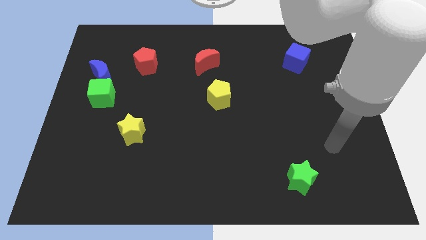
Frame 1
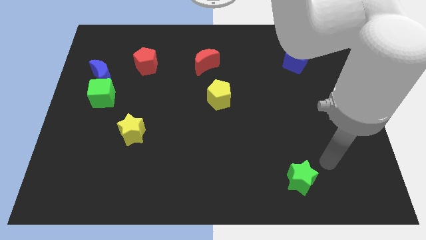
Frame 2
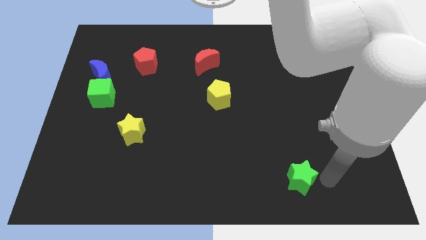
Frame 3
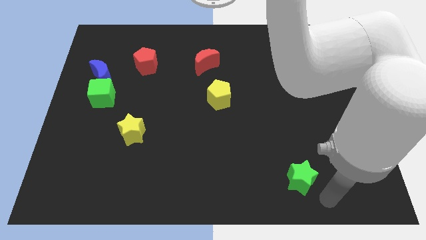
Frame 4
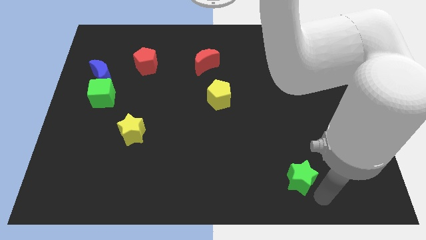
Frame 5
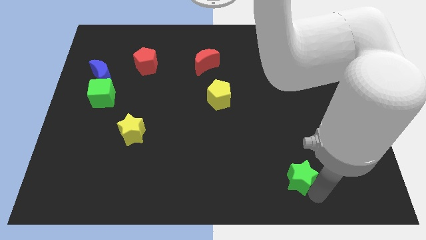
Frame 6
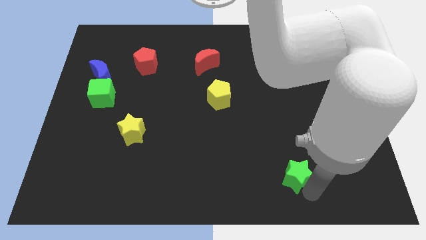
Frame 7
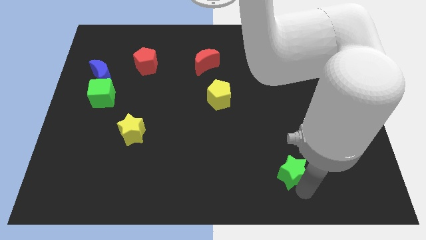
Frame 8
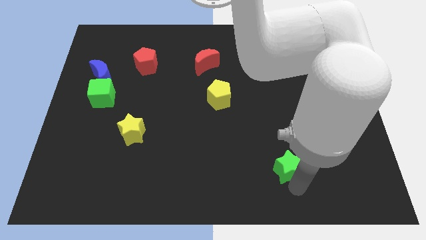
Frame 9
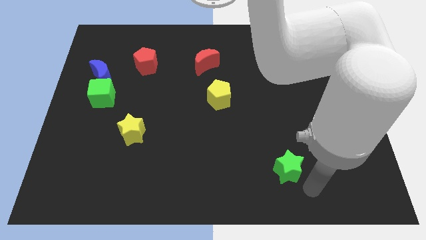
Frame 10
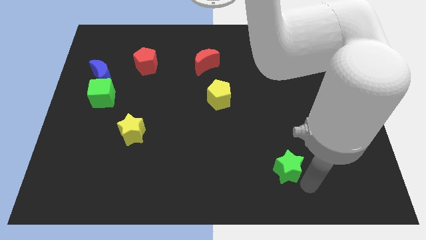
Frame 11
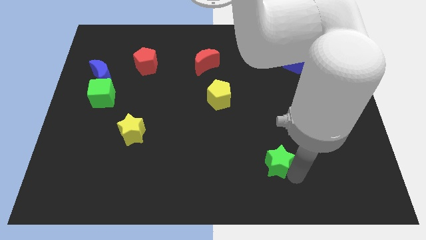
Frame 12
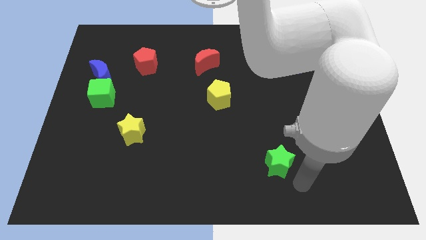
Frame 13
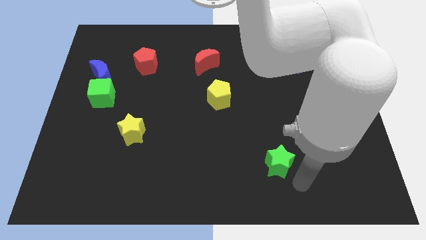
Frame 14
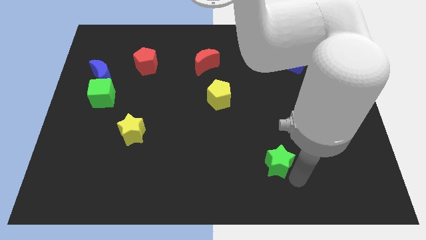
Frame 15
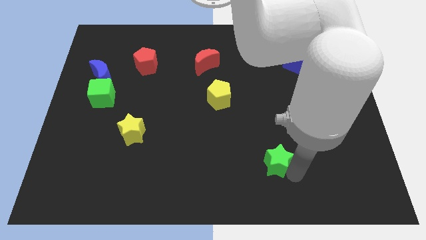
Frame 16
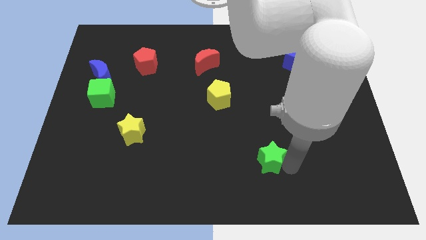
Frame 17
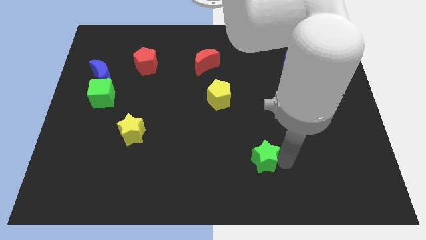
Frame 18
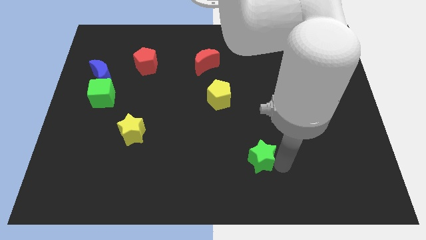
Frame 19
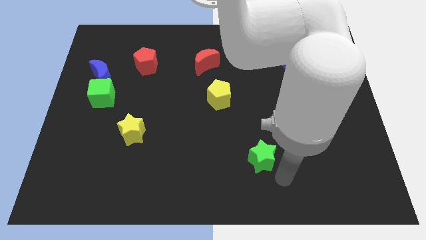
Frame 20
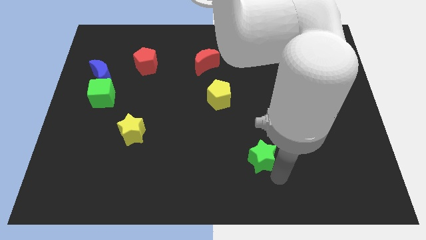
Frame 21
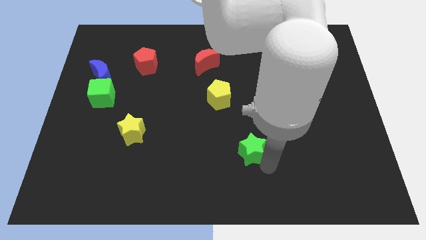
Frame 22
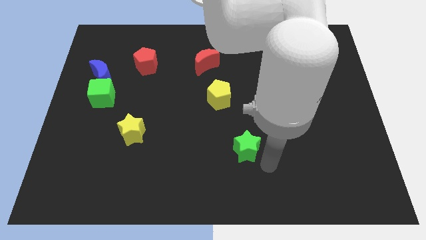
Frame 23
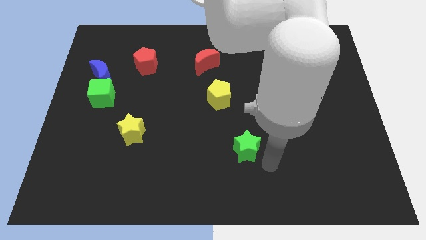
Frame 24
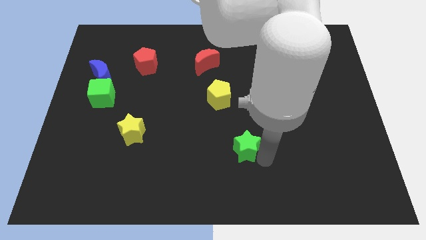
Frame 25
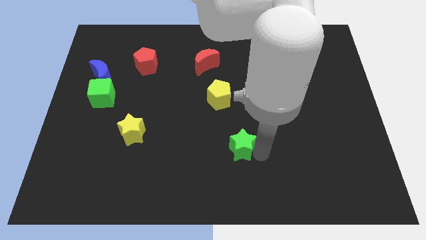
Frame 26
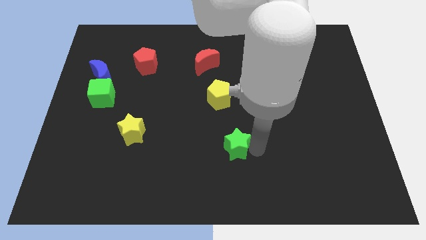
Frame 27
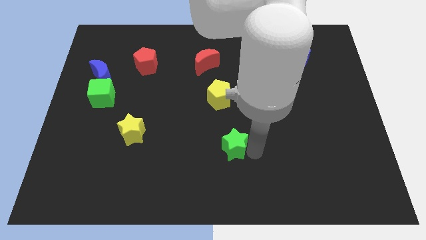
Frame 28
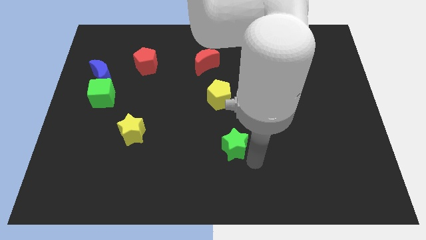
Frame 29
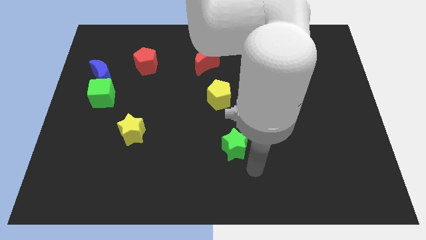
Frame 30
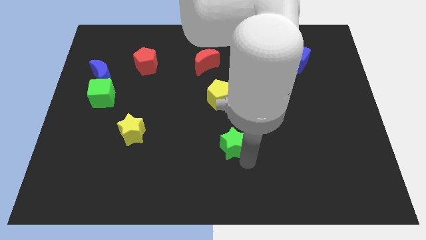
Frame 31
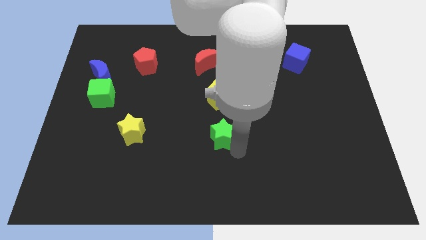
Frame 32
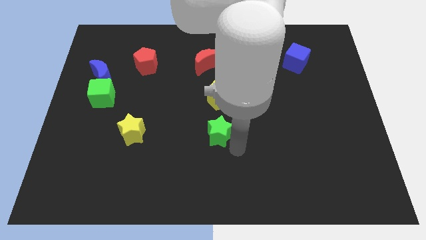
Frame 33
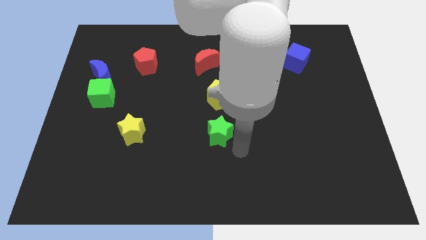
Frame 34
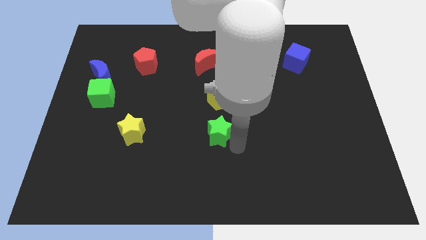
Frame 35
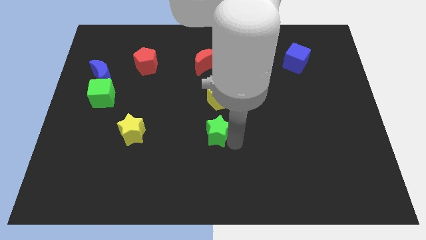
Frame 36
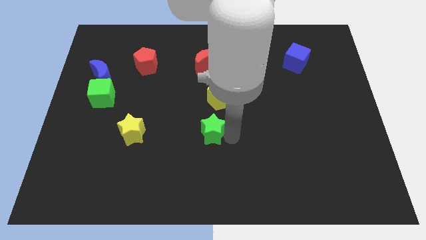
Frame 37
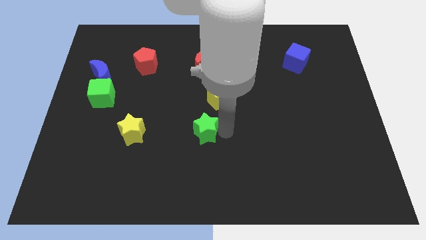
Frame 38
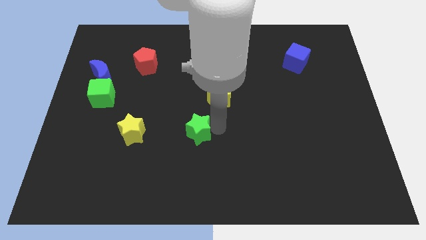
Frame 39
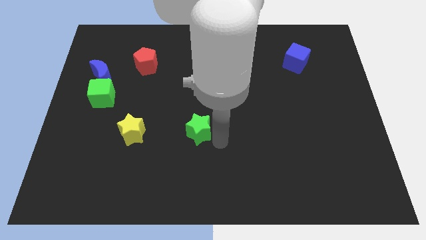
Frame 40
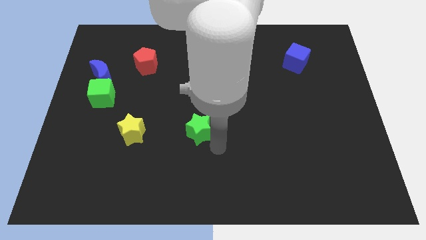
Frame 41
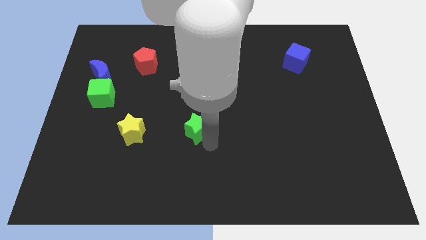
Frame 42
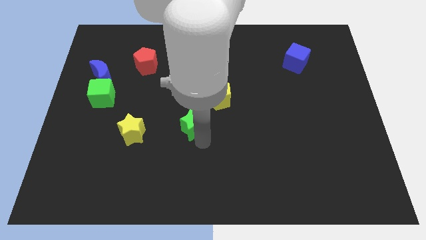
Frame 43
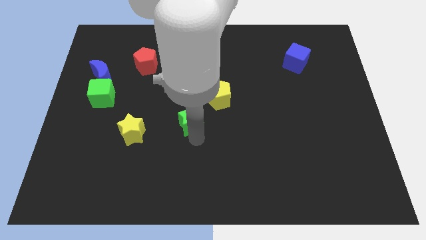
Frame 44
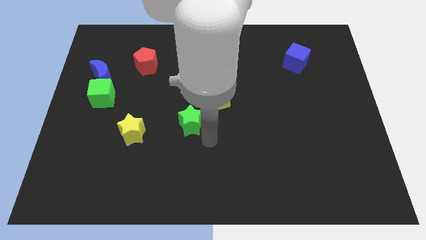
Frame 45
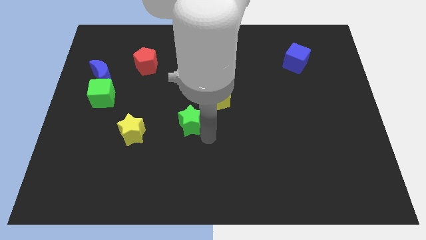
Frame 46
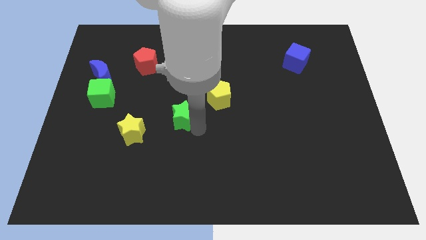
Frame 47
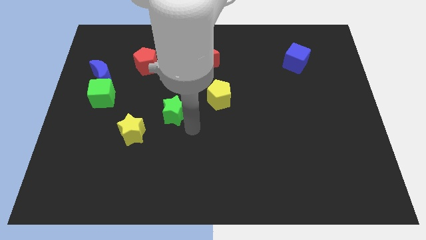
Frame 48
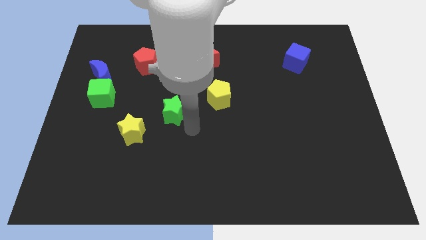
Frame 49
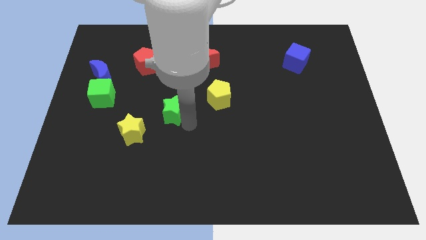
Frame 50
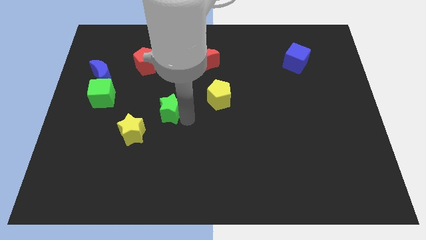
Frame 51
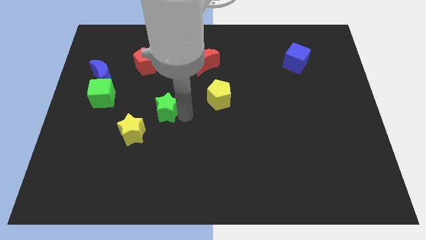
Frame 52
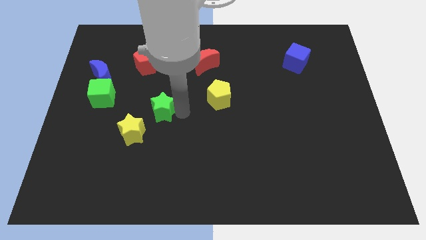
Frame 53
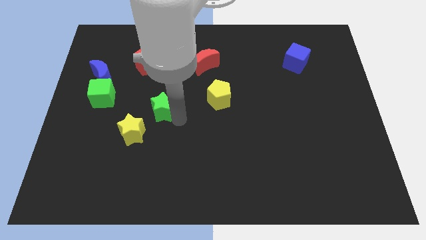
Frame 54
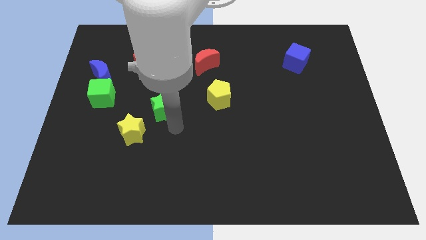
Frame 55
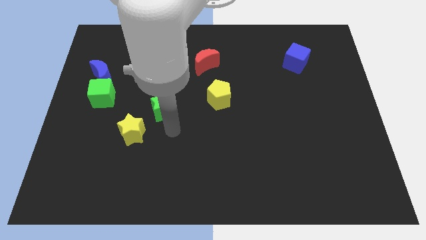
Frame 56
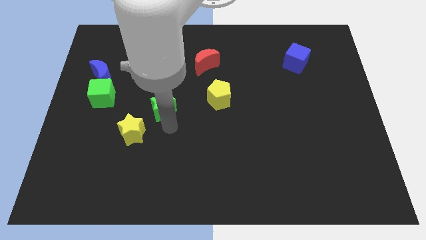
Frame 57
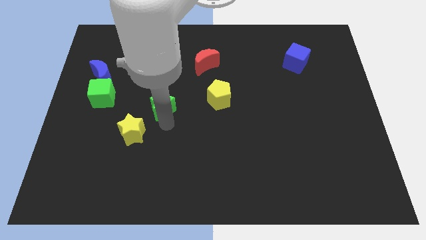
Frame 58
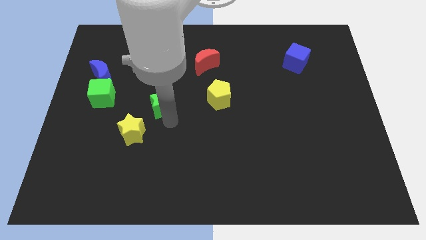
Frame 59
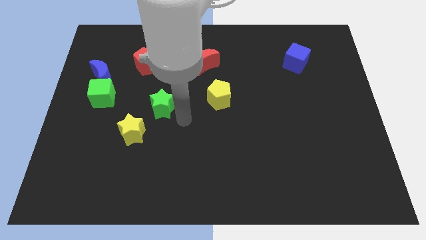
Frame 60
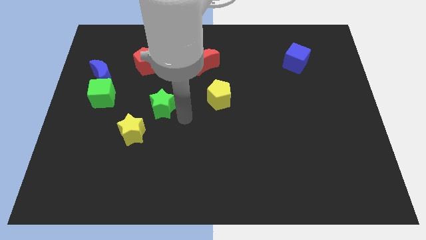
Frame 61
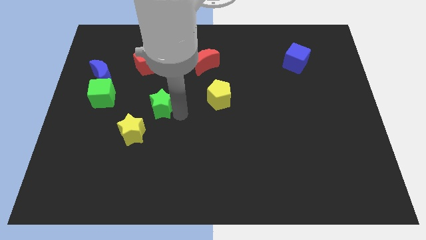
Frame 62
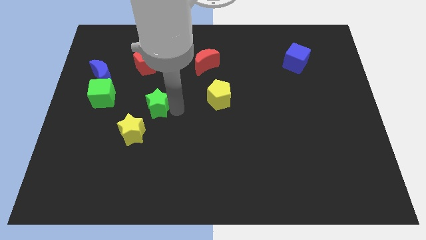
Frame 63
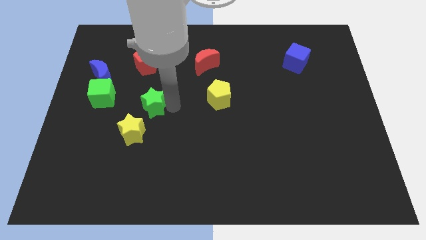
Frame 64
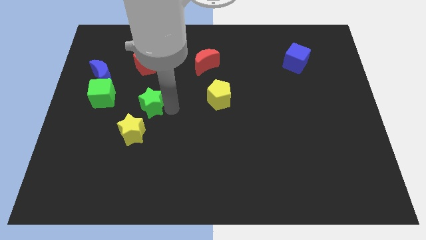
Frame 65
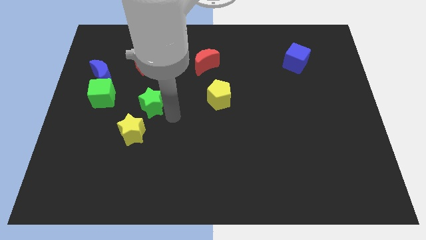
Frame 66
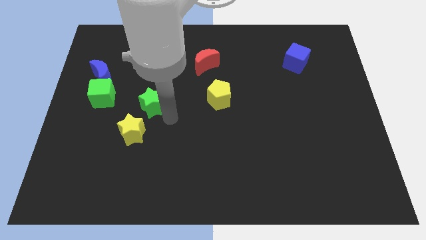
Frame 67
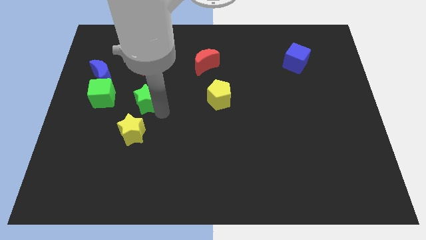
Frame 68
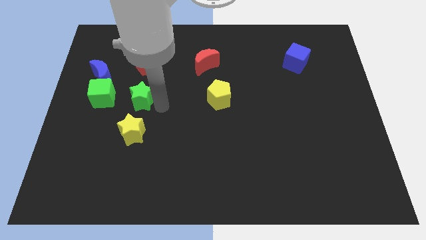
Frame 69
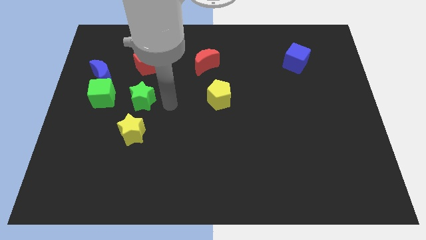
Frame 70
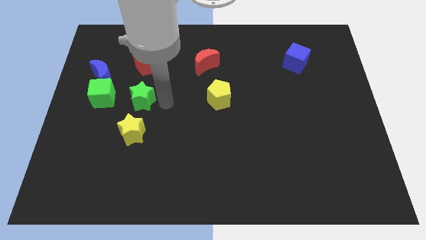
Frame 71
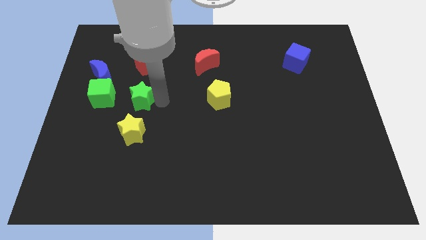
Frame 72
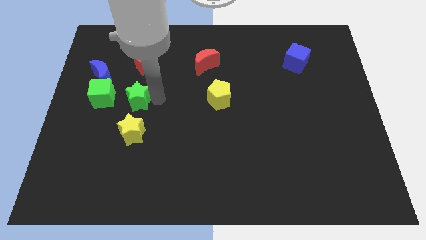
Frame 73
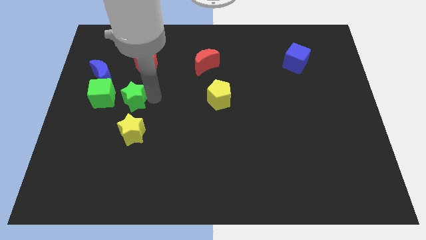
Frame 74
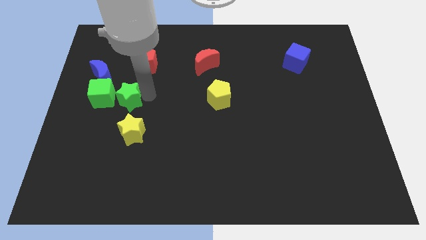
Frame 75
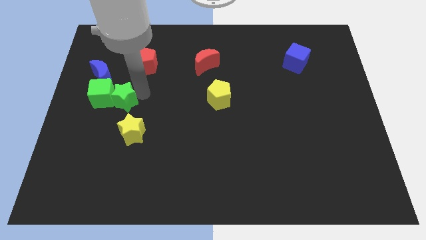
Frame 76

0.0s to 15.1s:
move the green star next to the green cube
